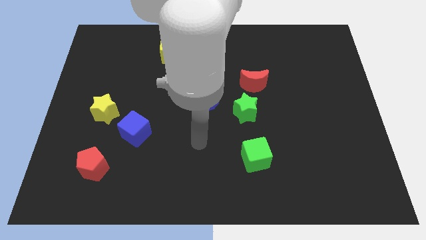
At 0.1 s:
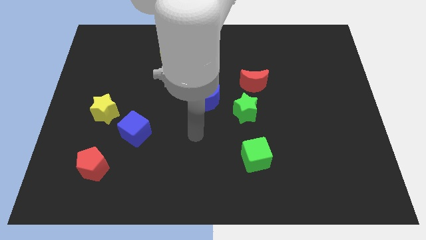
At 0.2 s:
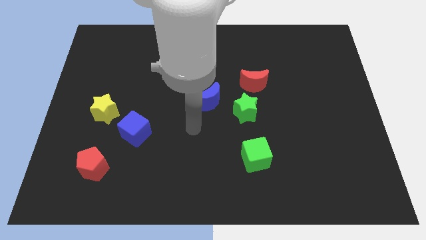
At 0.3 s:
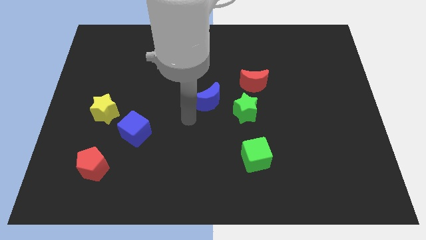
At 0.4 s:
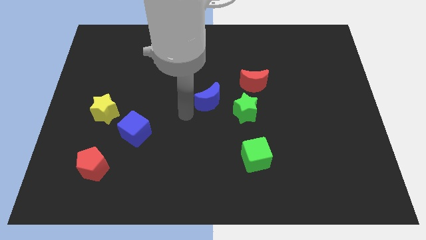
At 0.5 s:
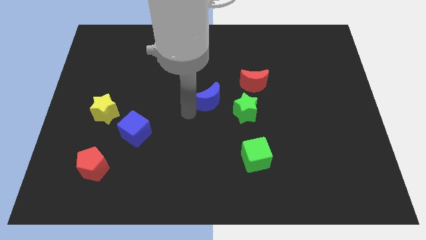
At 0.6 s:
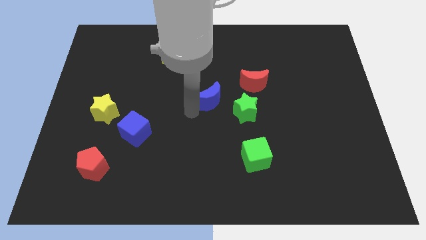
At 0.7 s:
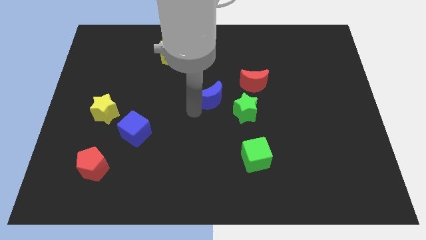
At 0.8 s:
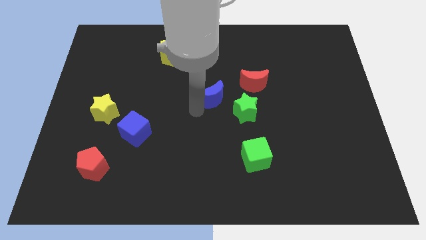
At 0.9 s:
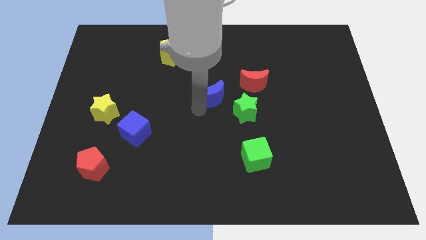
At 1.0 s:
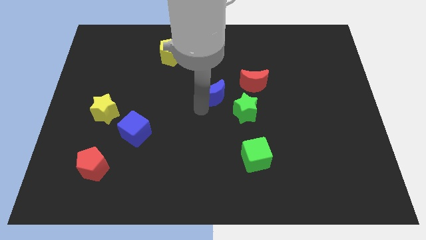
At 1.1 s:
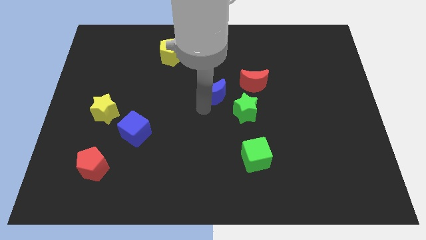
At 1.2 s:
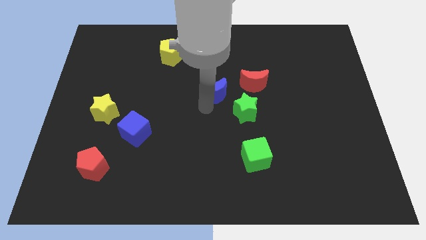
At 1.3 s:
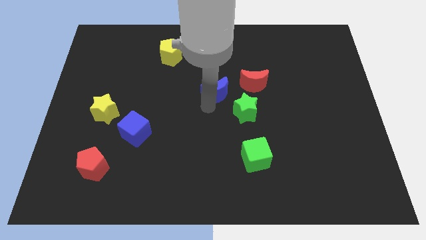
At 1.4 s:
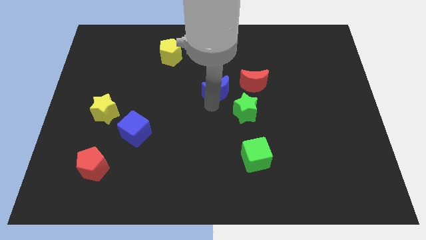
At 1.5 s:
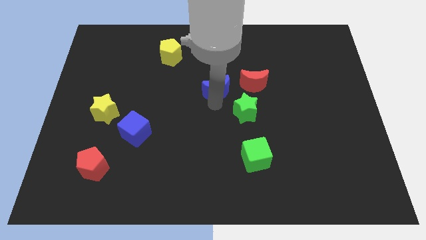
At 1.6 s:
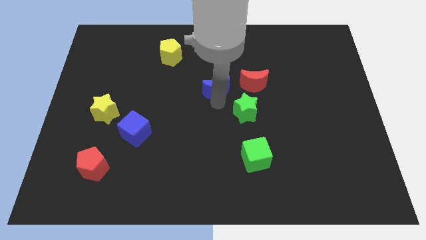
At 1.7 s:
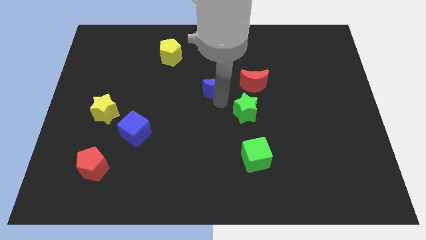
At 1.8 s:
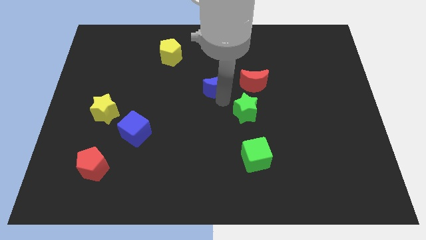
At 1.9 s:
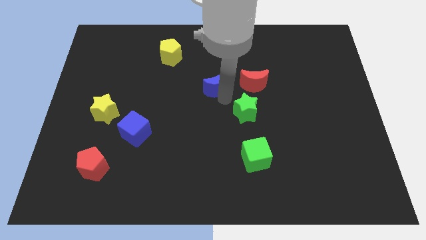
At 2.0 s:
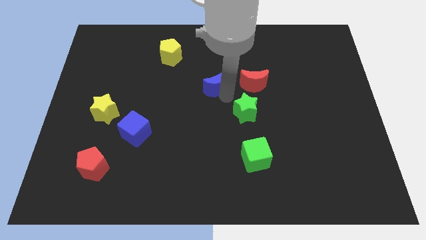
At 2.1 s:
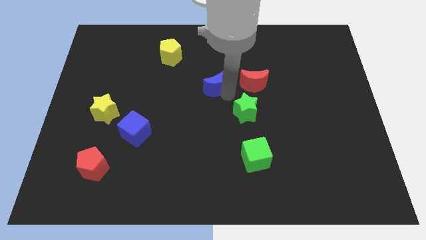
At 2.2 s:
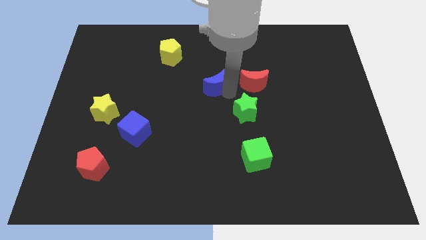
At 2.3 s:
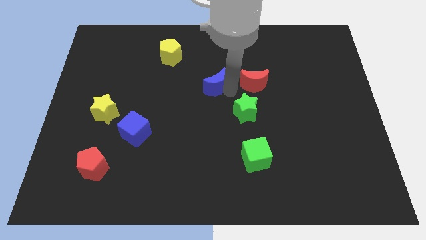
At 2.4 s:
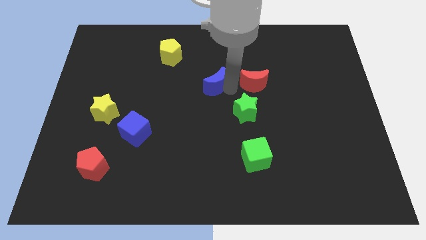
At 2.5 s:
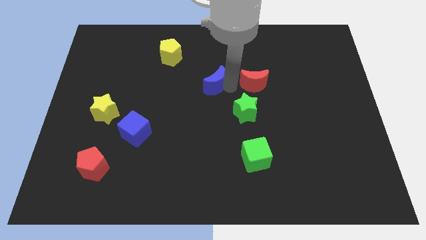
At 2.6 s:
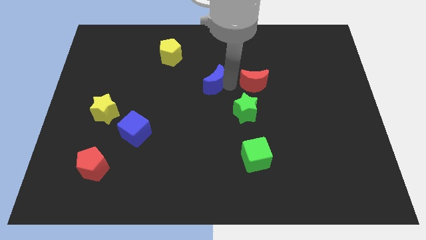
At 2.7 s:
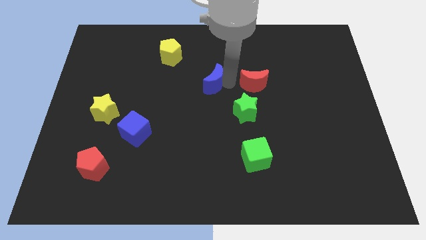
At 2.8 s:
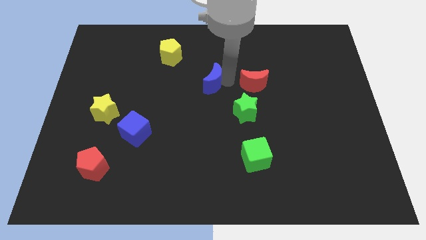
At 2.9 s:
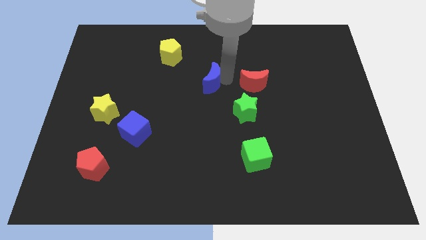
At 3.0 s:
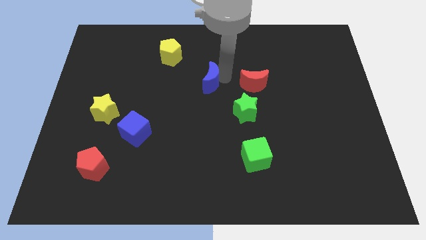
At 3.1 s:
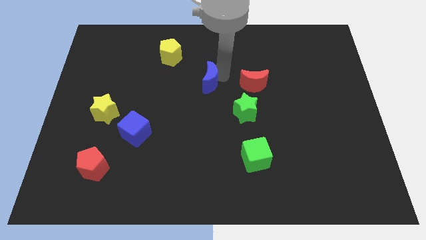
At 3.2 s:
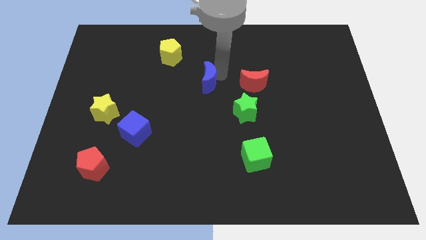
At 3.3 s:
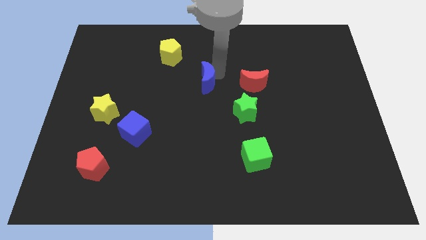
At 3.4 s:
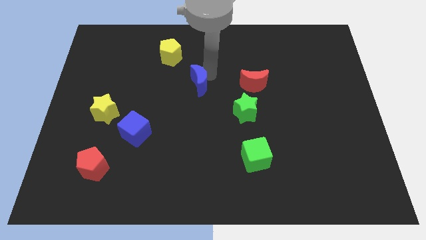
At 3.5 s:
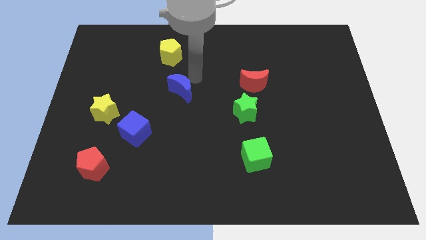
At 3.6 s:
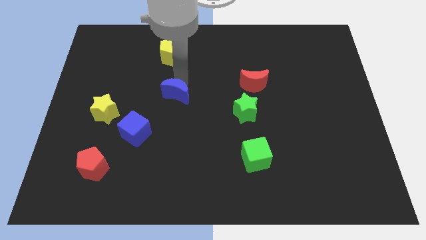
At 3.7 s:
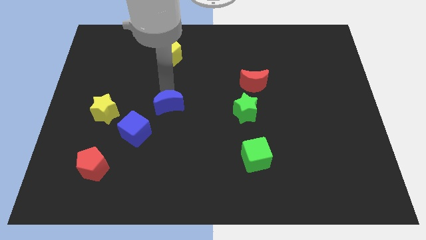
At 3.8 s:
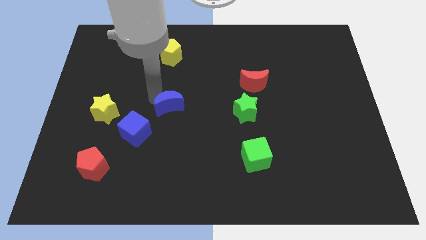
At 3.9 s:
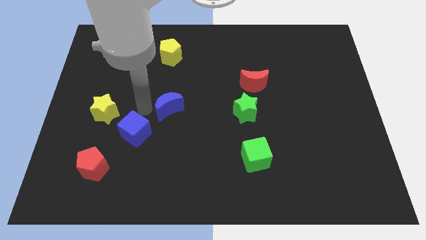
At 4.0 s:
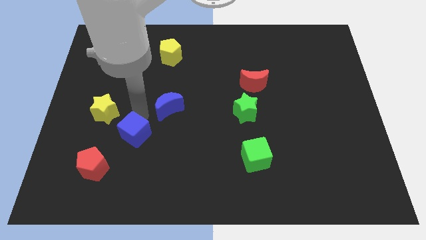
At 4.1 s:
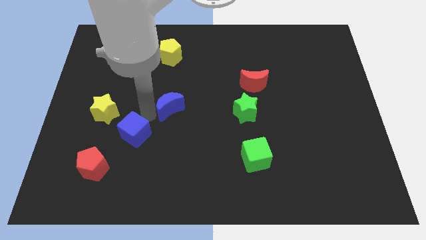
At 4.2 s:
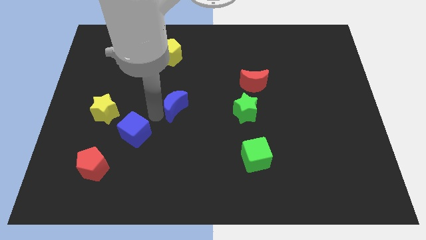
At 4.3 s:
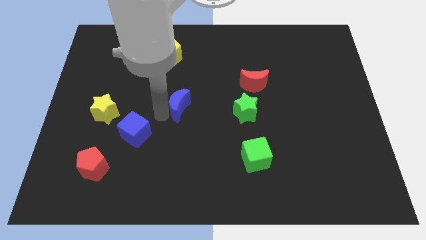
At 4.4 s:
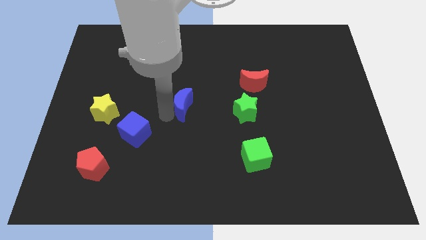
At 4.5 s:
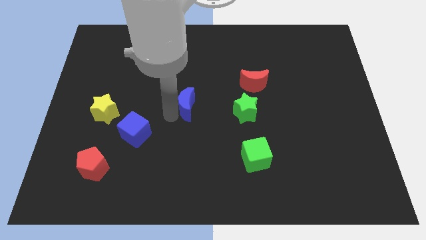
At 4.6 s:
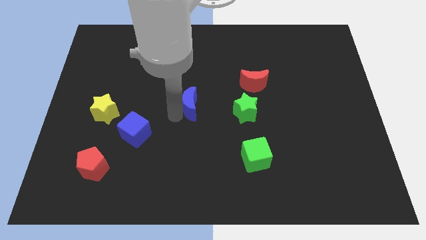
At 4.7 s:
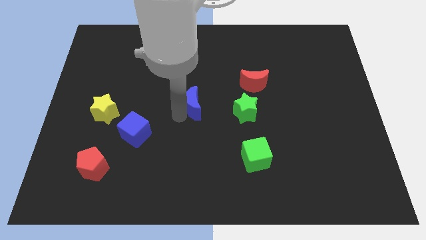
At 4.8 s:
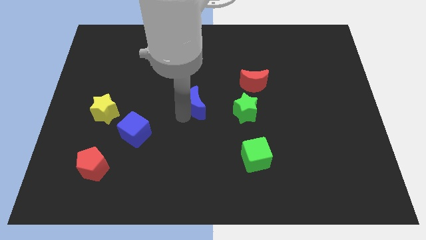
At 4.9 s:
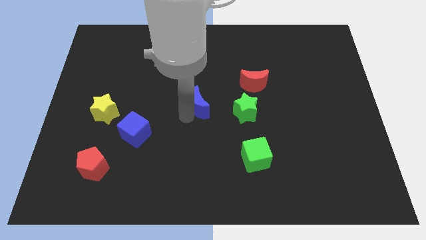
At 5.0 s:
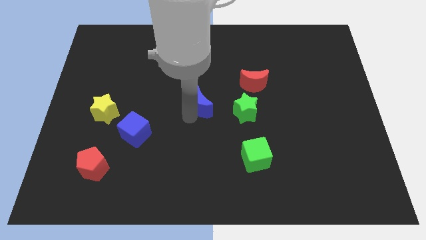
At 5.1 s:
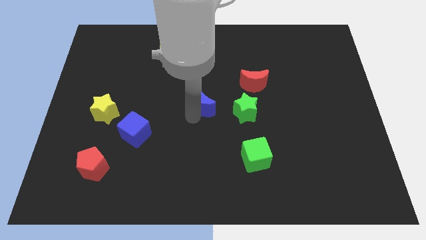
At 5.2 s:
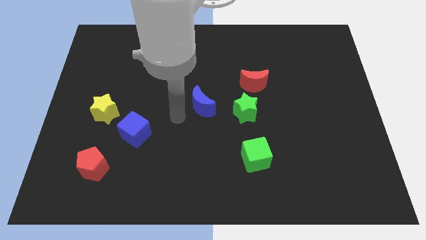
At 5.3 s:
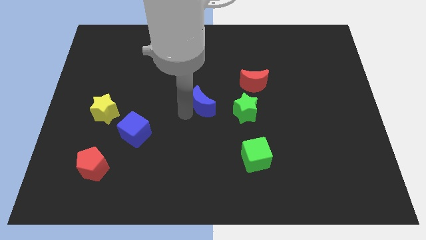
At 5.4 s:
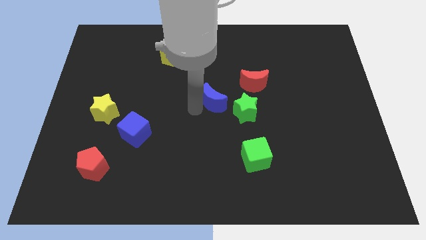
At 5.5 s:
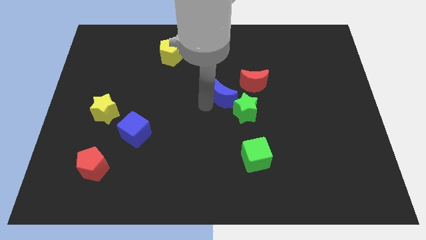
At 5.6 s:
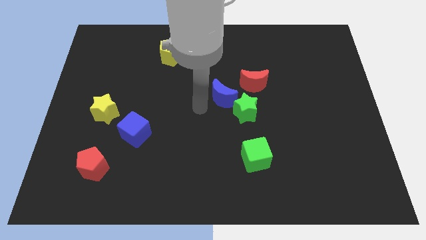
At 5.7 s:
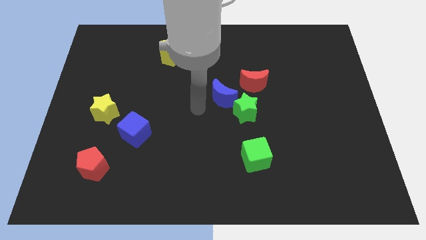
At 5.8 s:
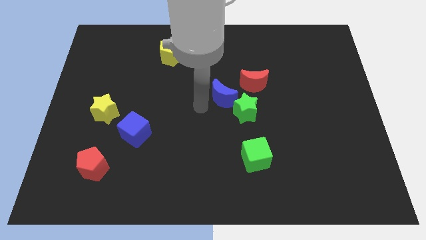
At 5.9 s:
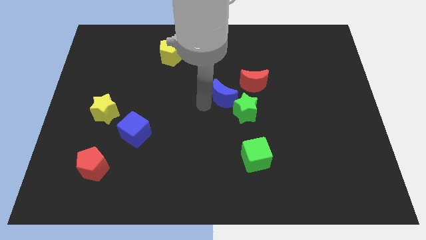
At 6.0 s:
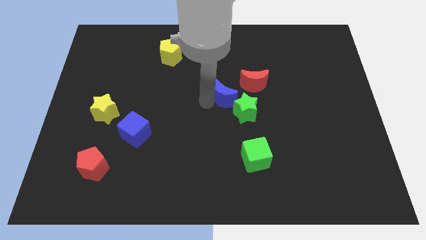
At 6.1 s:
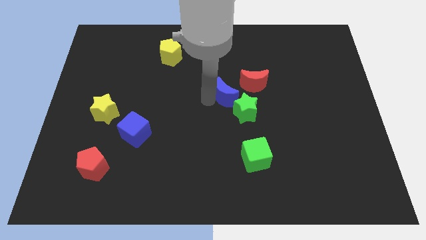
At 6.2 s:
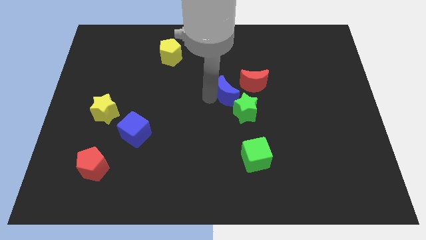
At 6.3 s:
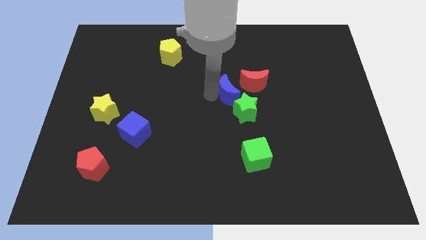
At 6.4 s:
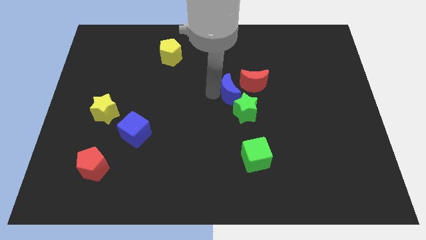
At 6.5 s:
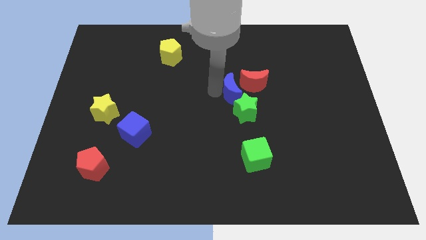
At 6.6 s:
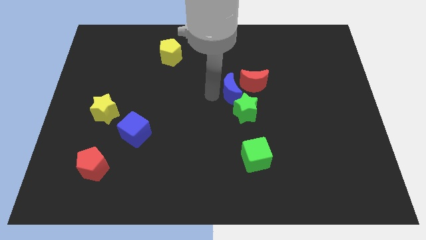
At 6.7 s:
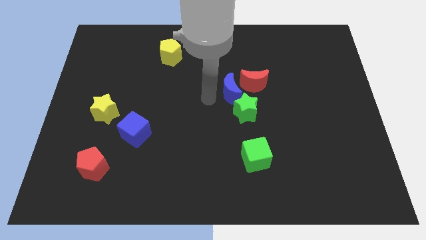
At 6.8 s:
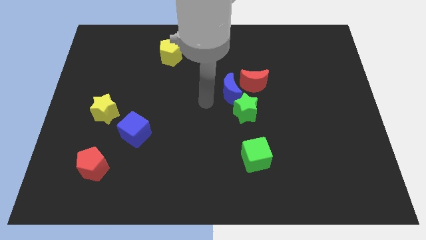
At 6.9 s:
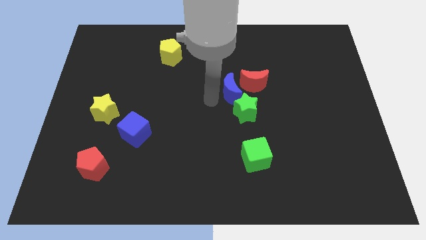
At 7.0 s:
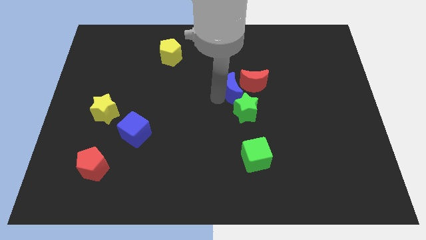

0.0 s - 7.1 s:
put the blue moon towards the red moon
